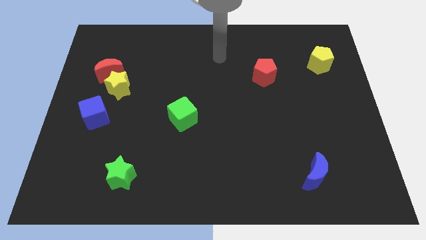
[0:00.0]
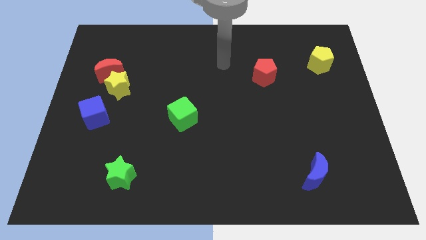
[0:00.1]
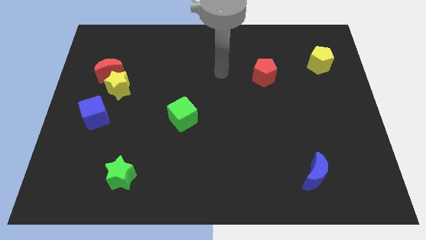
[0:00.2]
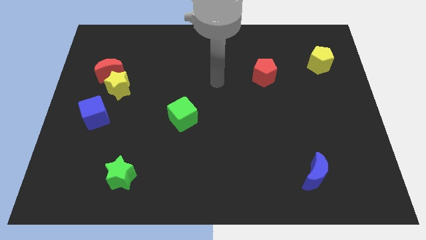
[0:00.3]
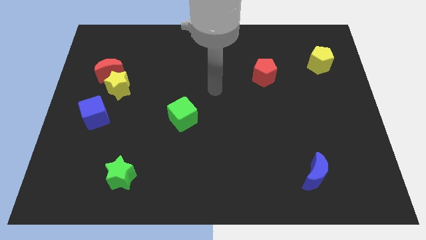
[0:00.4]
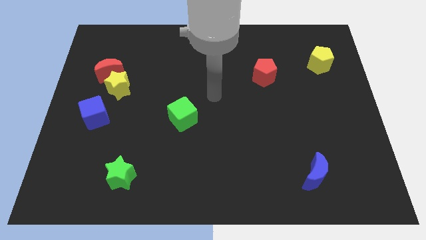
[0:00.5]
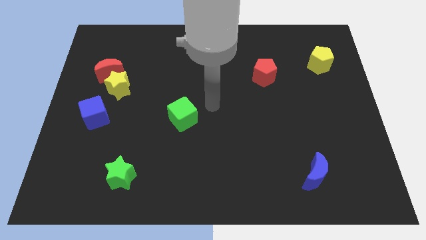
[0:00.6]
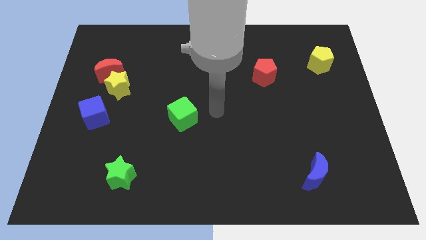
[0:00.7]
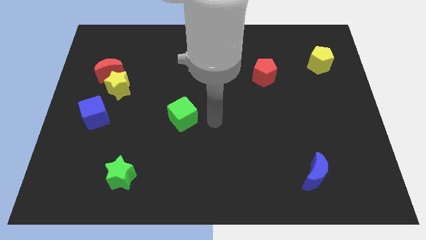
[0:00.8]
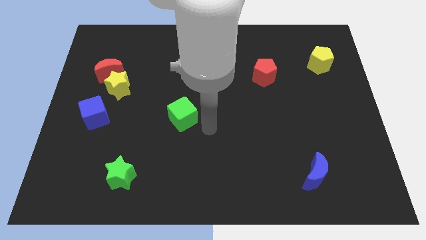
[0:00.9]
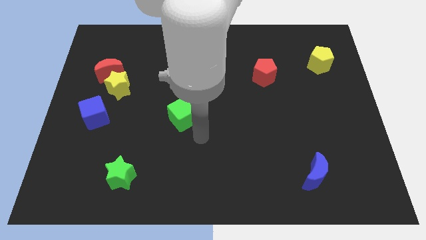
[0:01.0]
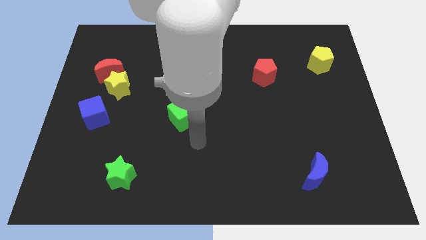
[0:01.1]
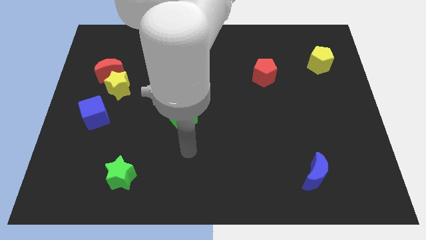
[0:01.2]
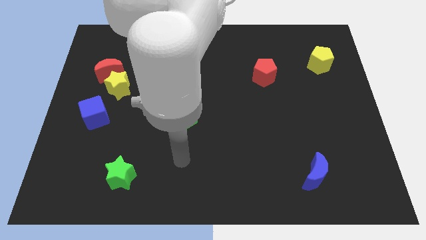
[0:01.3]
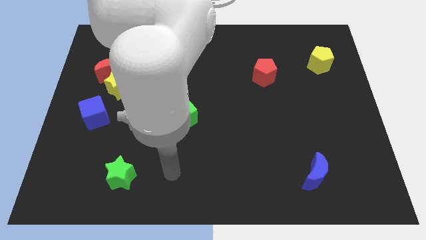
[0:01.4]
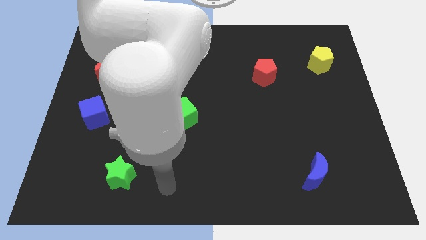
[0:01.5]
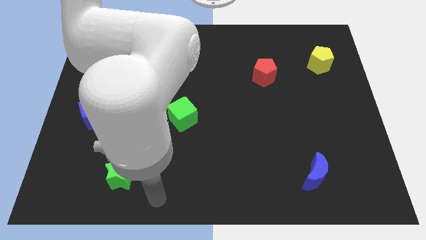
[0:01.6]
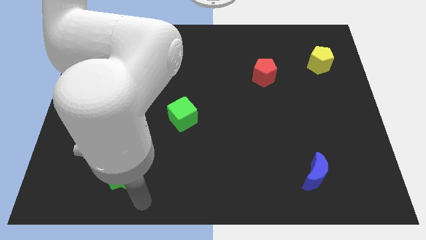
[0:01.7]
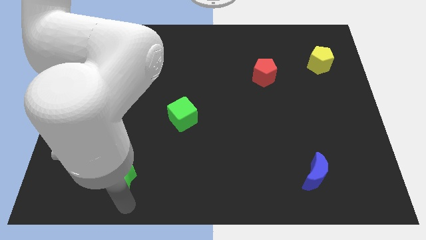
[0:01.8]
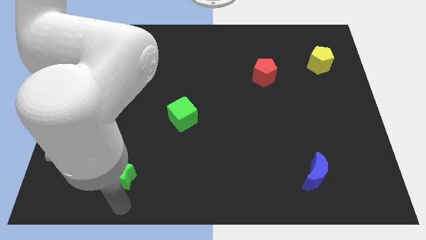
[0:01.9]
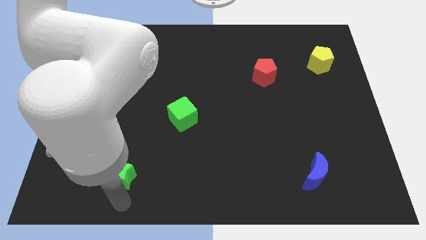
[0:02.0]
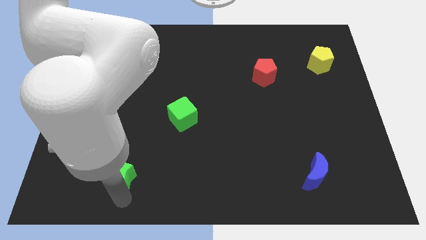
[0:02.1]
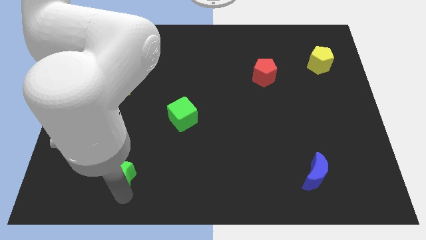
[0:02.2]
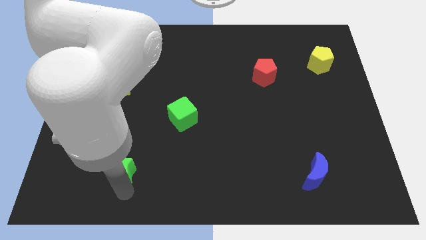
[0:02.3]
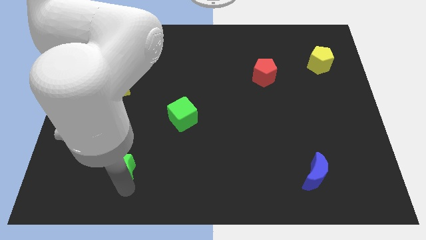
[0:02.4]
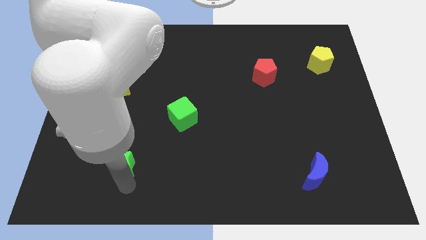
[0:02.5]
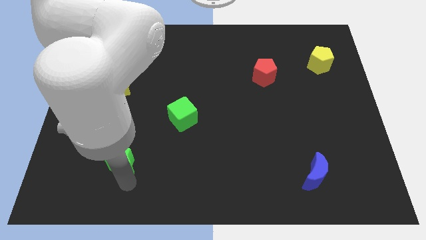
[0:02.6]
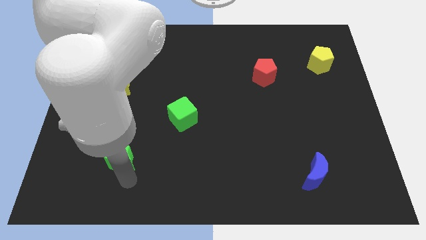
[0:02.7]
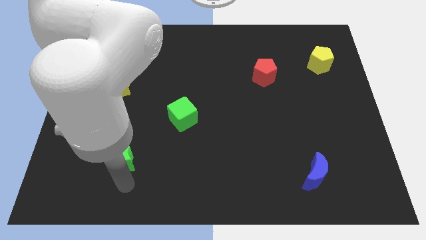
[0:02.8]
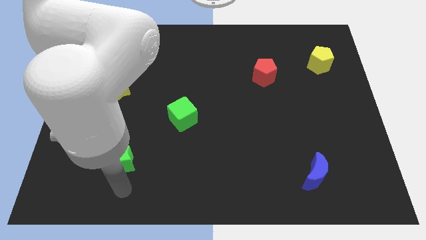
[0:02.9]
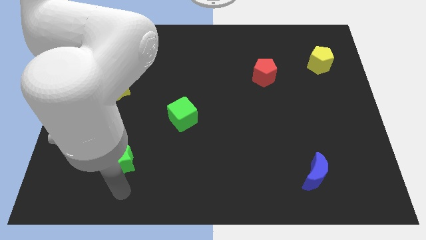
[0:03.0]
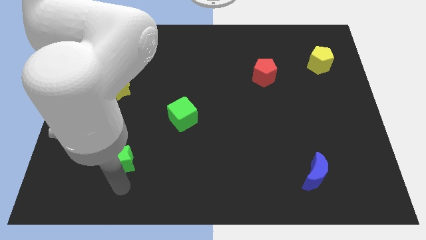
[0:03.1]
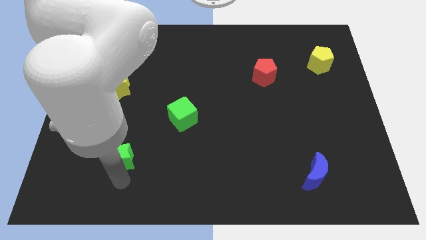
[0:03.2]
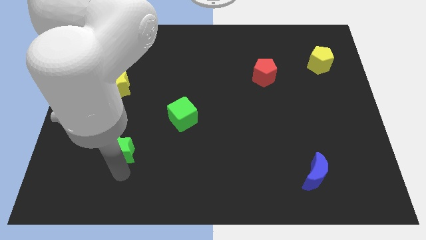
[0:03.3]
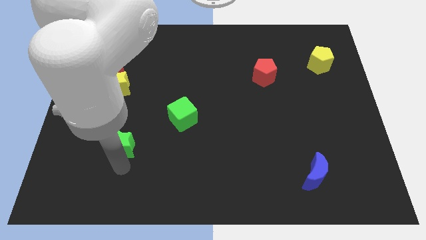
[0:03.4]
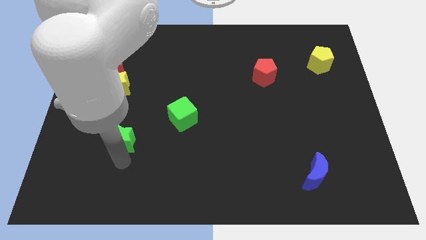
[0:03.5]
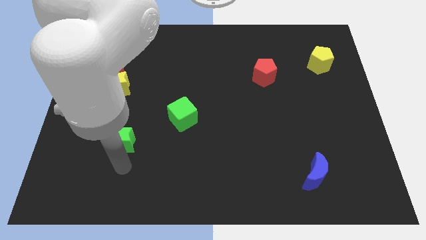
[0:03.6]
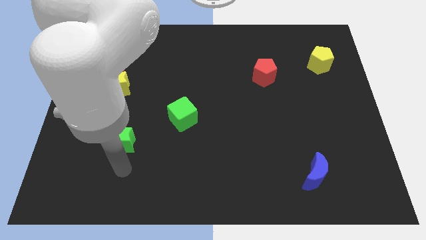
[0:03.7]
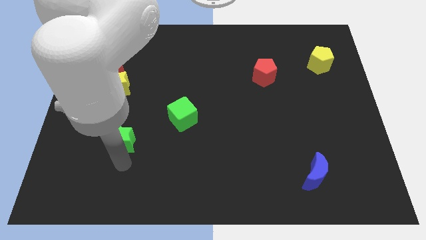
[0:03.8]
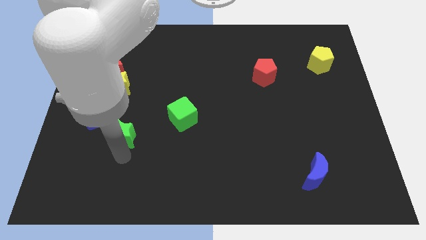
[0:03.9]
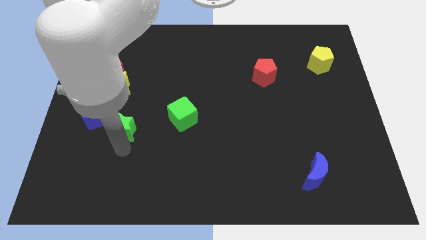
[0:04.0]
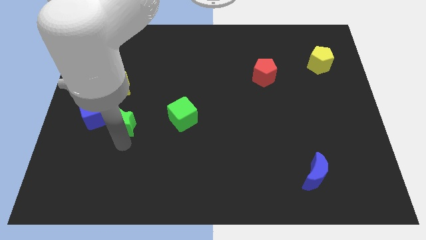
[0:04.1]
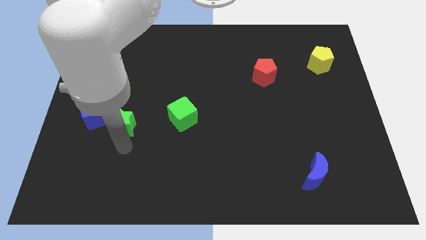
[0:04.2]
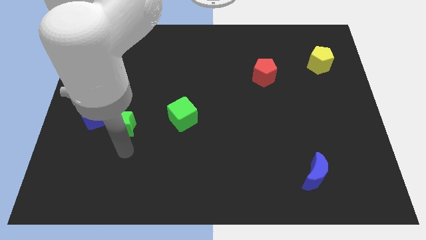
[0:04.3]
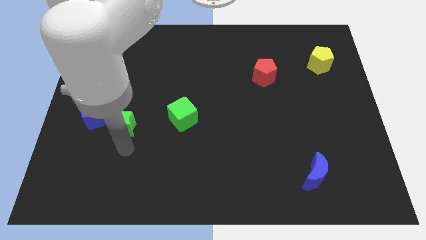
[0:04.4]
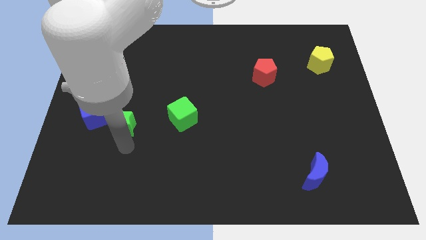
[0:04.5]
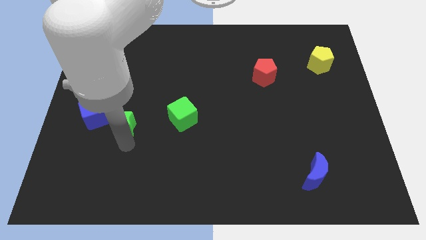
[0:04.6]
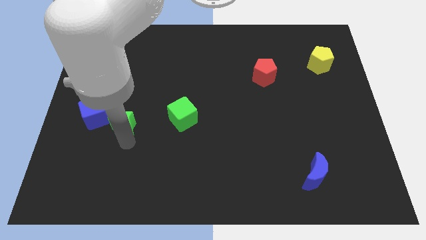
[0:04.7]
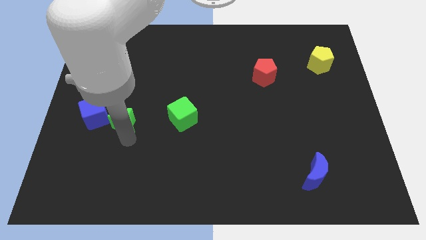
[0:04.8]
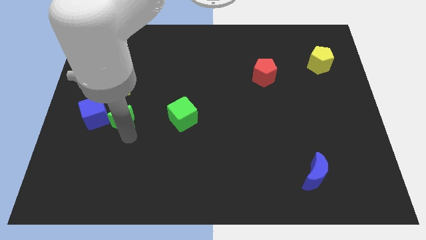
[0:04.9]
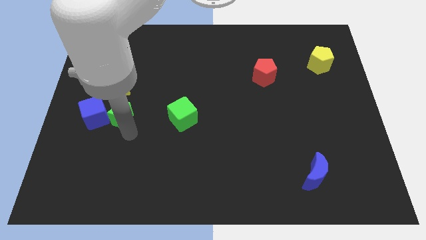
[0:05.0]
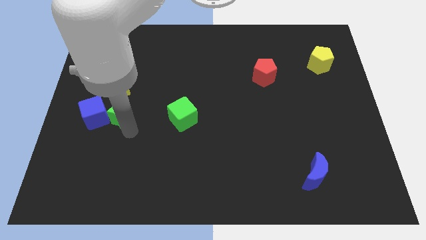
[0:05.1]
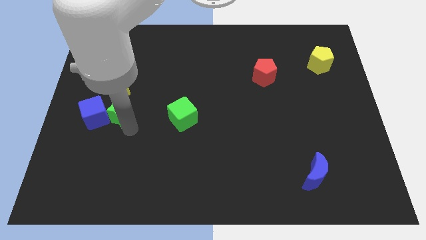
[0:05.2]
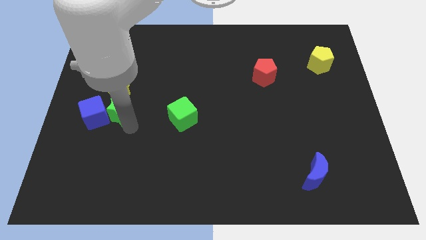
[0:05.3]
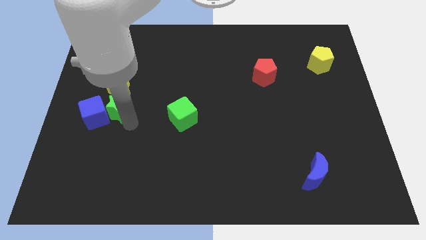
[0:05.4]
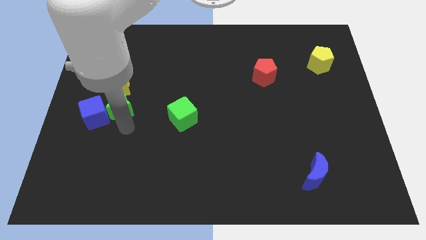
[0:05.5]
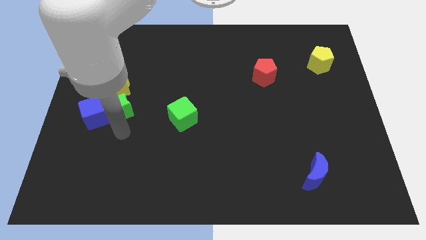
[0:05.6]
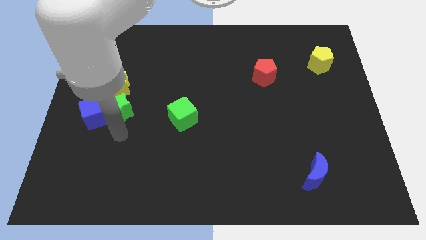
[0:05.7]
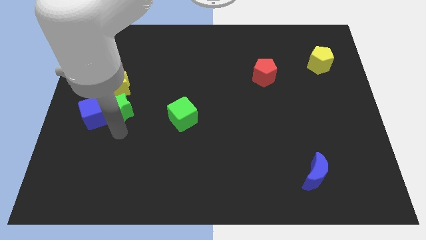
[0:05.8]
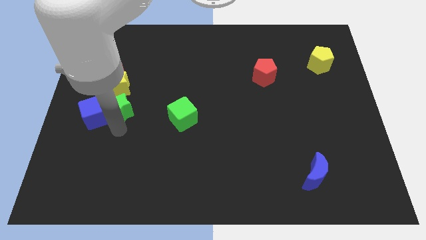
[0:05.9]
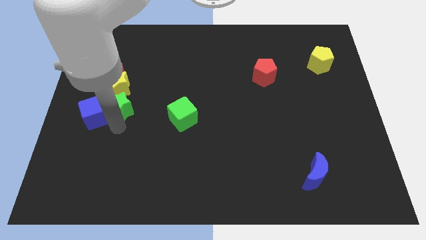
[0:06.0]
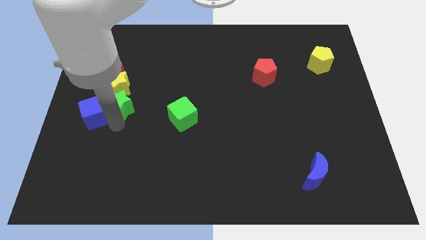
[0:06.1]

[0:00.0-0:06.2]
put the green star towards the yellow star
